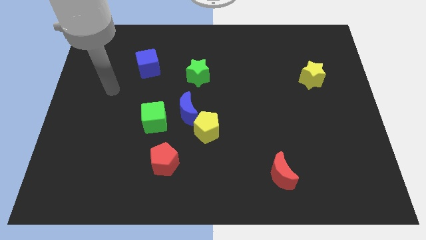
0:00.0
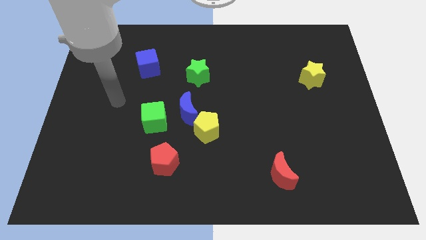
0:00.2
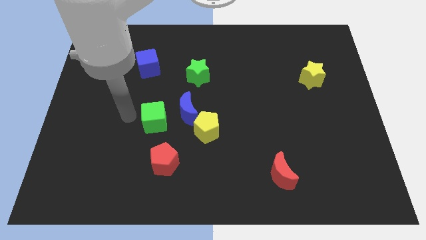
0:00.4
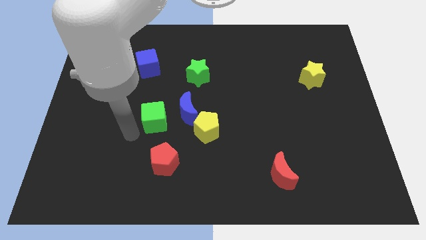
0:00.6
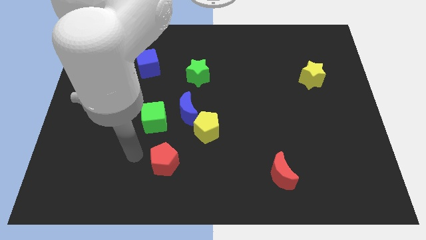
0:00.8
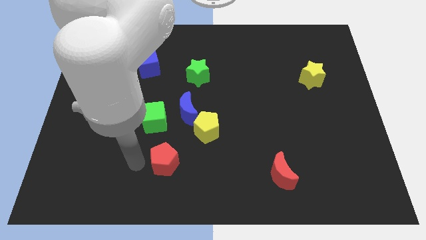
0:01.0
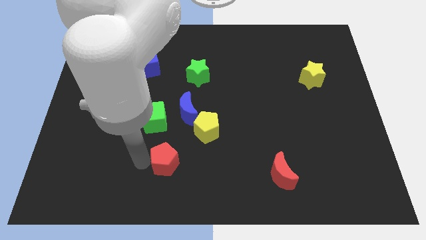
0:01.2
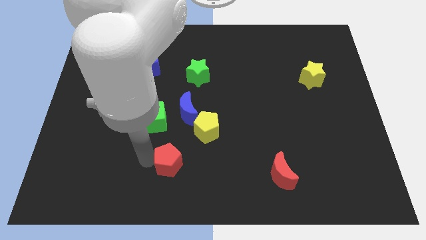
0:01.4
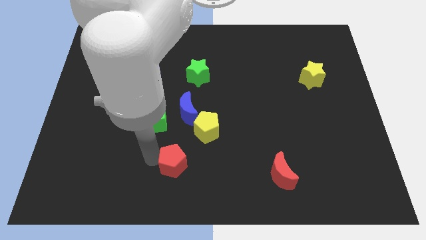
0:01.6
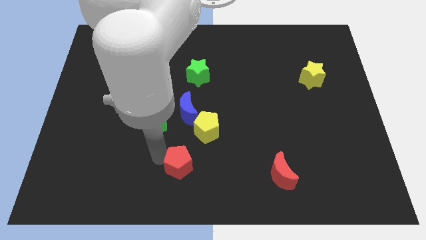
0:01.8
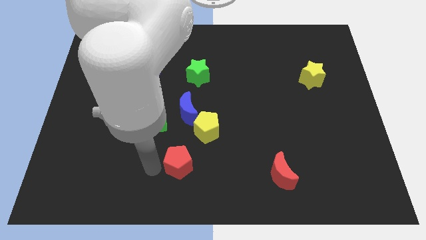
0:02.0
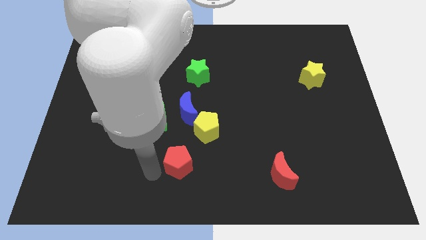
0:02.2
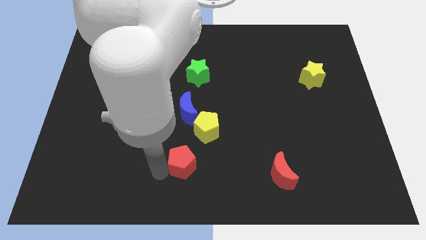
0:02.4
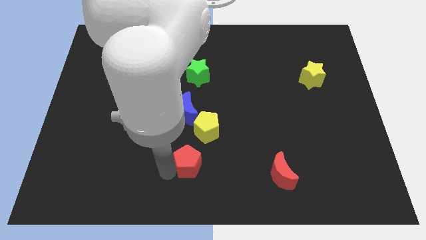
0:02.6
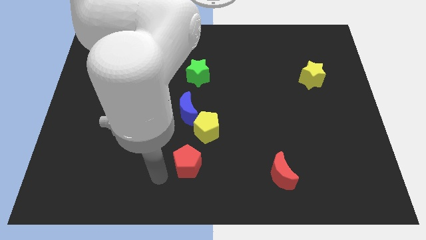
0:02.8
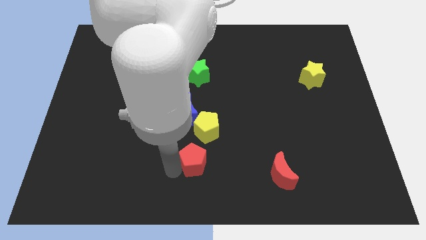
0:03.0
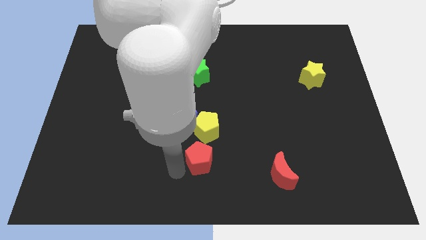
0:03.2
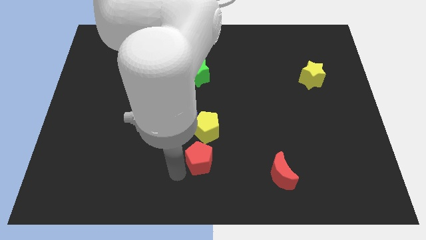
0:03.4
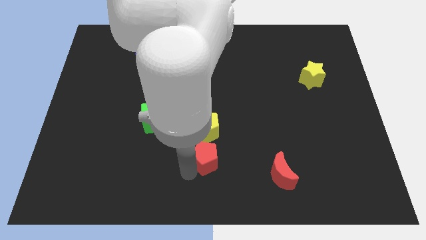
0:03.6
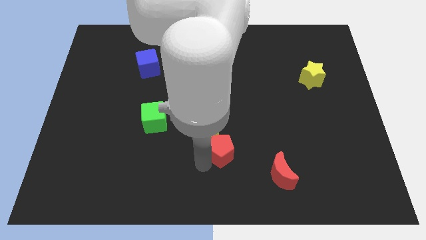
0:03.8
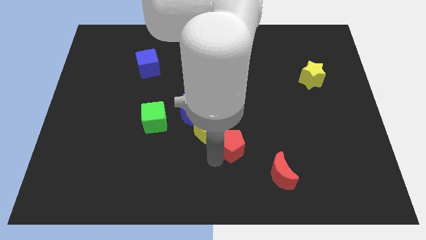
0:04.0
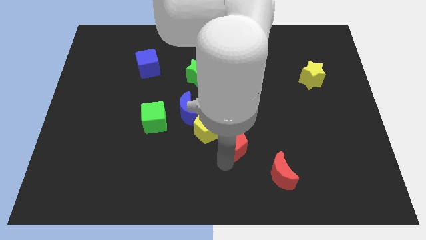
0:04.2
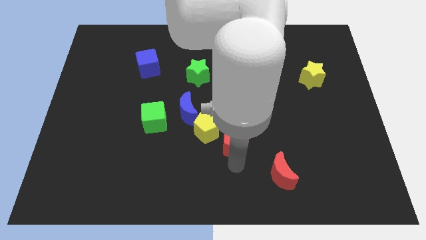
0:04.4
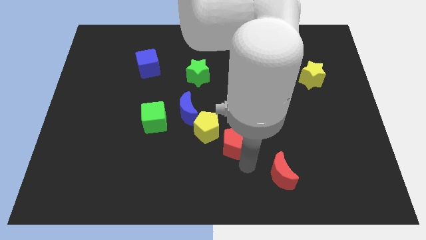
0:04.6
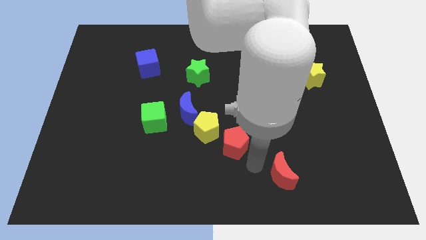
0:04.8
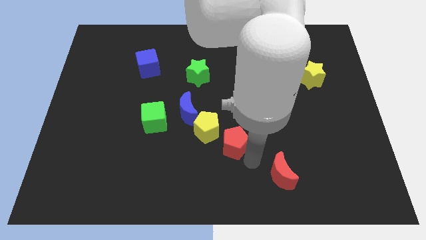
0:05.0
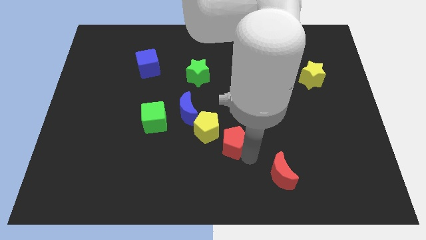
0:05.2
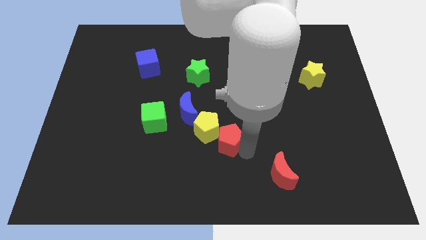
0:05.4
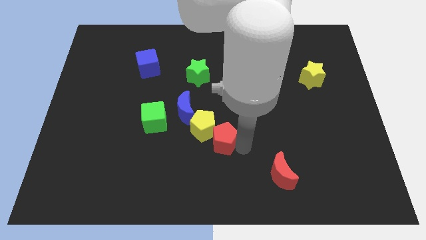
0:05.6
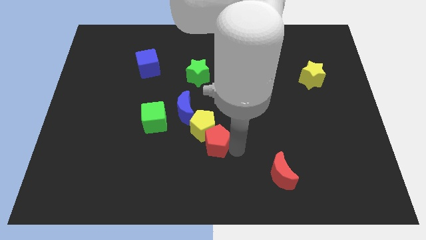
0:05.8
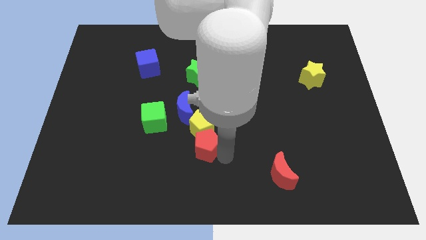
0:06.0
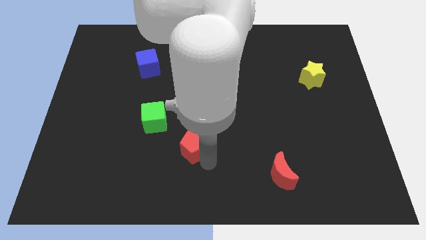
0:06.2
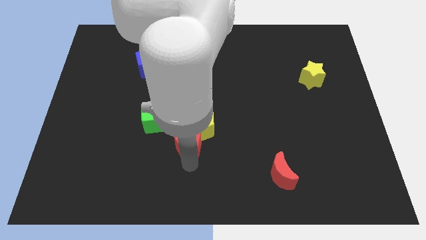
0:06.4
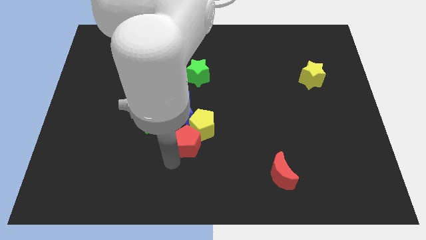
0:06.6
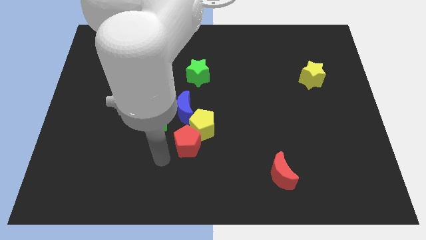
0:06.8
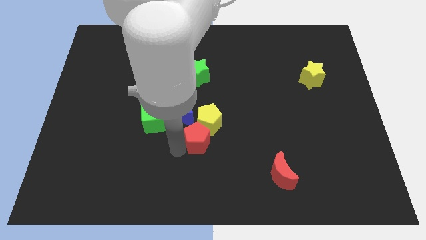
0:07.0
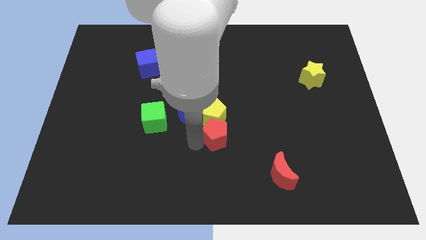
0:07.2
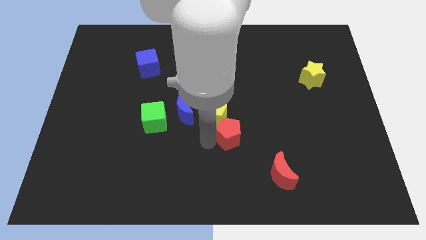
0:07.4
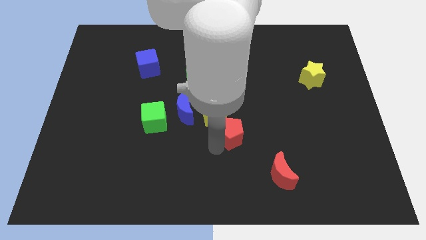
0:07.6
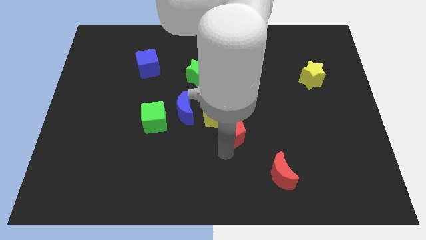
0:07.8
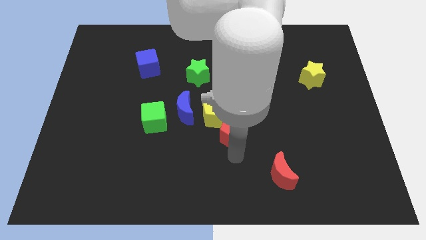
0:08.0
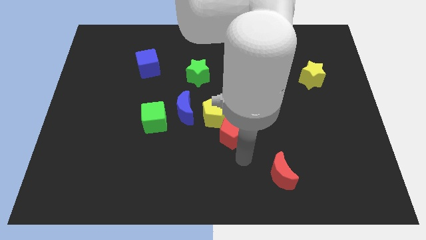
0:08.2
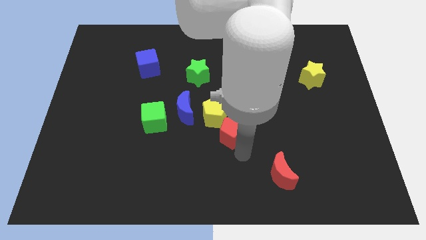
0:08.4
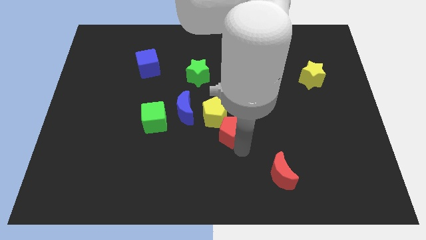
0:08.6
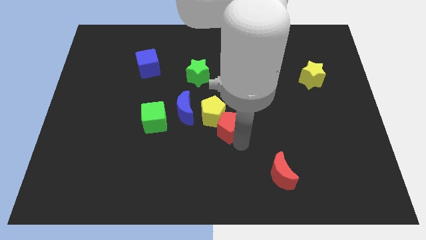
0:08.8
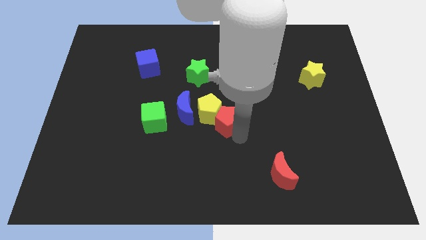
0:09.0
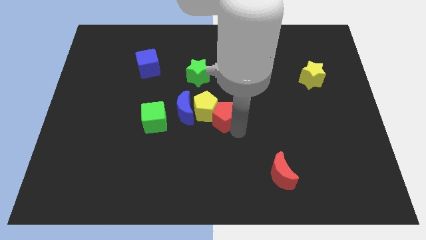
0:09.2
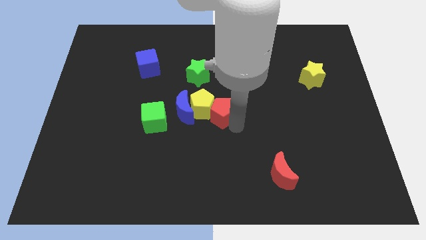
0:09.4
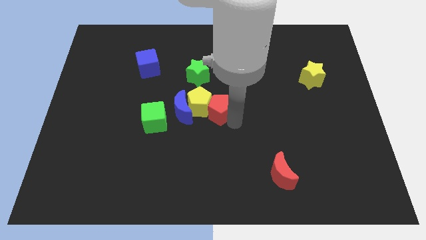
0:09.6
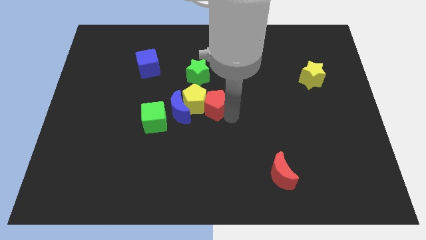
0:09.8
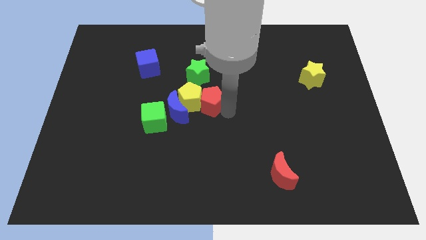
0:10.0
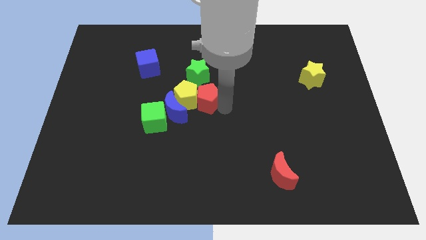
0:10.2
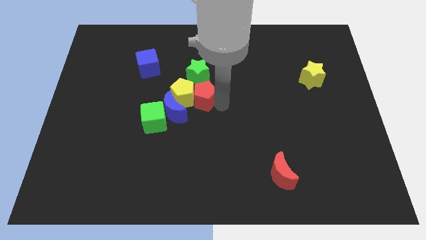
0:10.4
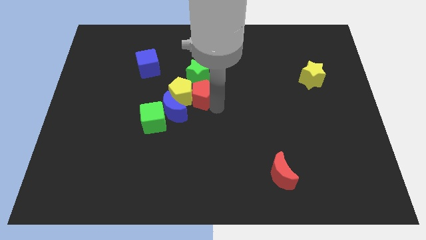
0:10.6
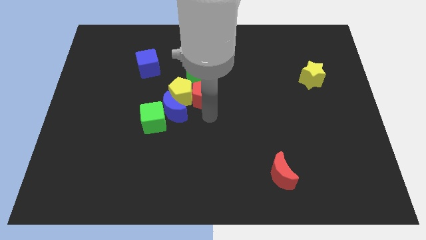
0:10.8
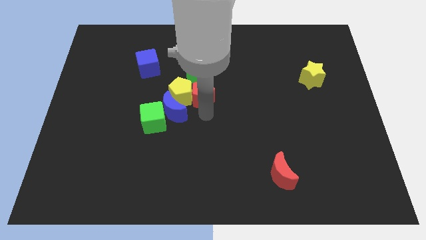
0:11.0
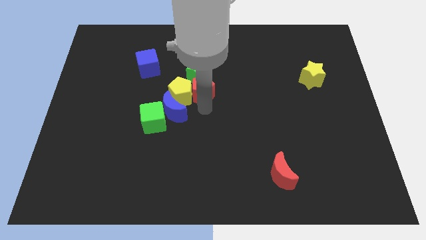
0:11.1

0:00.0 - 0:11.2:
push the red pentagon close to the green star

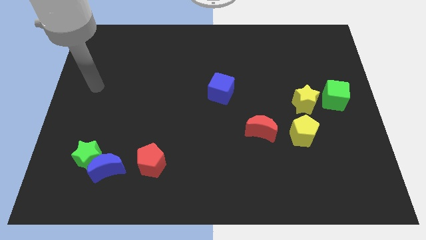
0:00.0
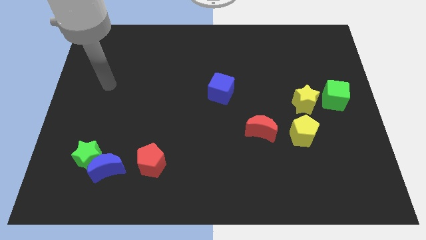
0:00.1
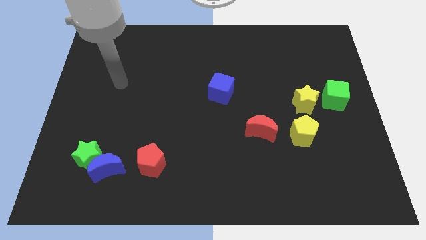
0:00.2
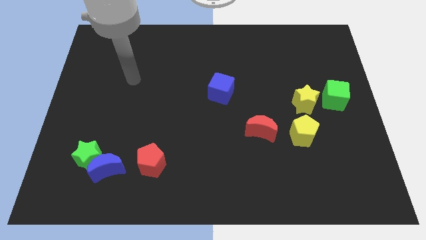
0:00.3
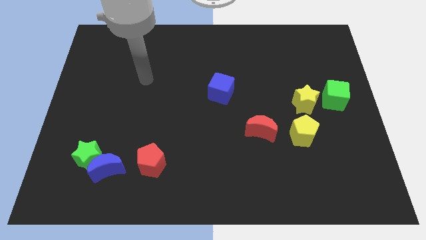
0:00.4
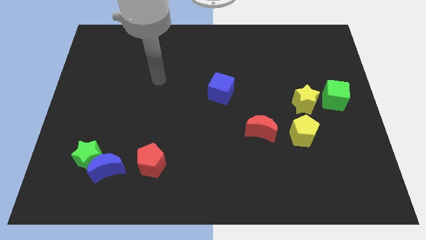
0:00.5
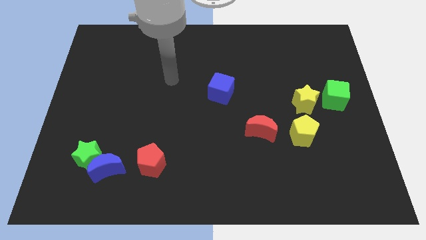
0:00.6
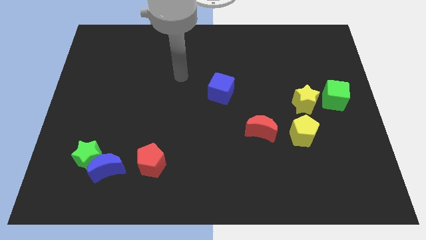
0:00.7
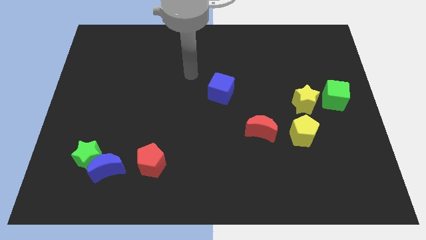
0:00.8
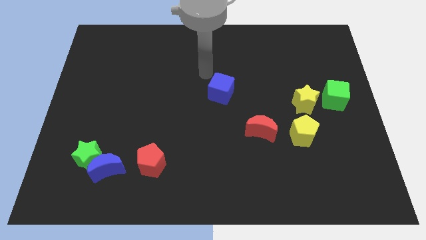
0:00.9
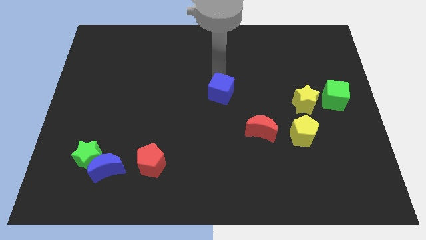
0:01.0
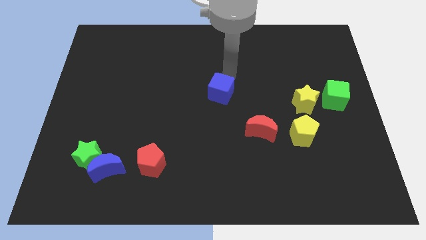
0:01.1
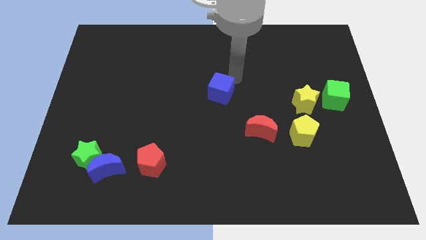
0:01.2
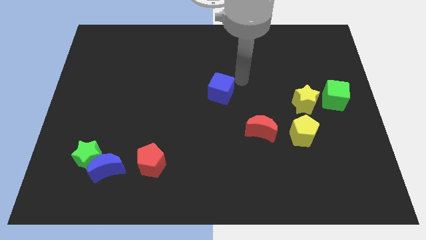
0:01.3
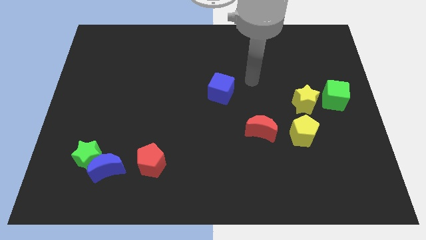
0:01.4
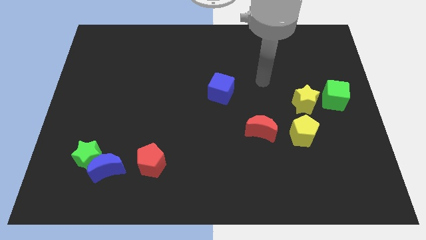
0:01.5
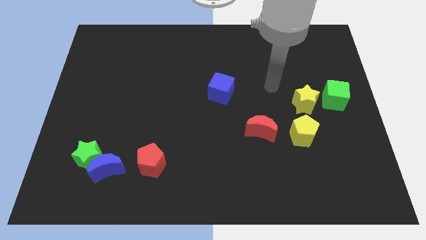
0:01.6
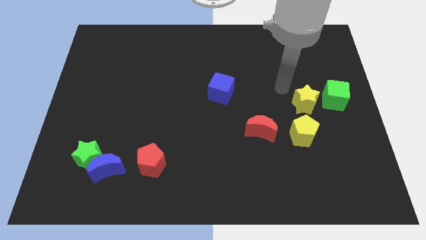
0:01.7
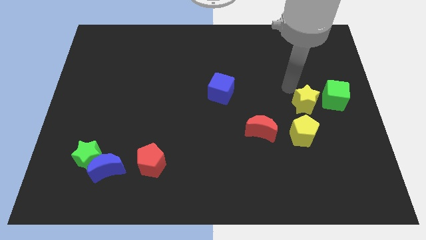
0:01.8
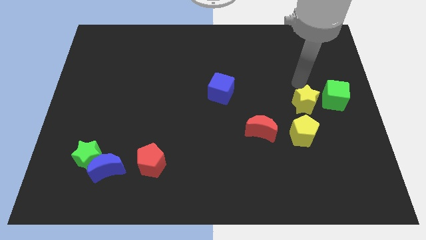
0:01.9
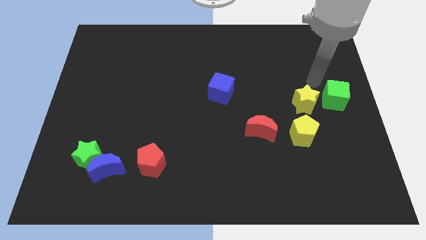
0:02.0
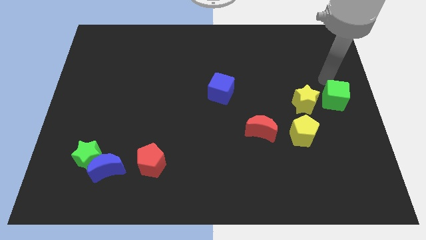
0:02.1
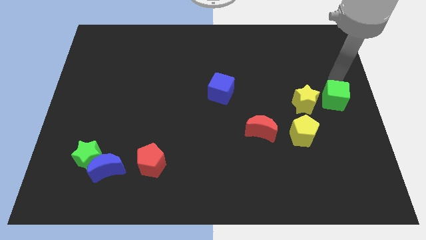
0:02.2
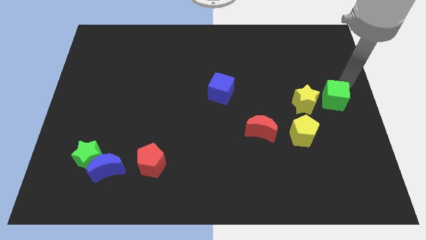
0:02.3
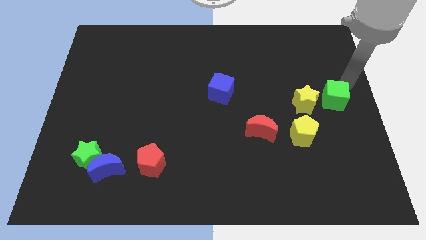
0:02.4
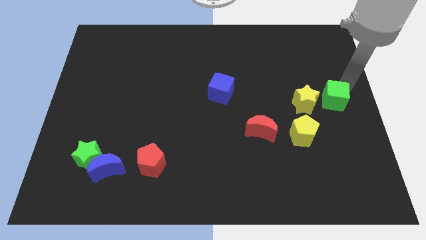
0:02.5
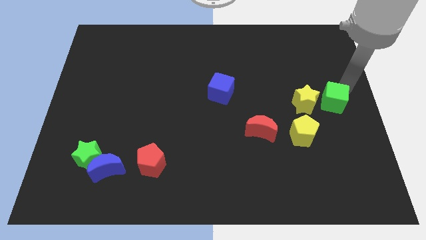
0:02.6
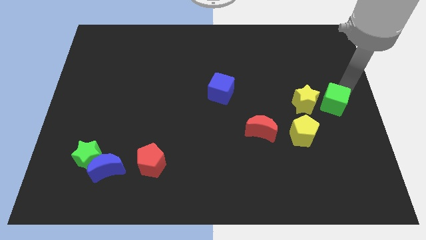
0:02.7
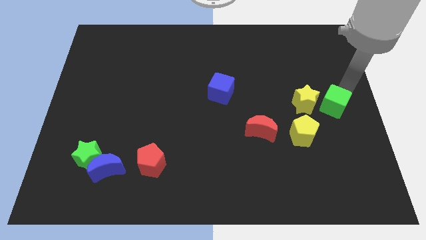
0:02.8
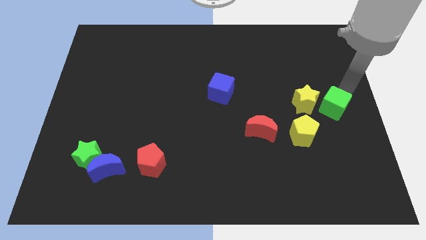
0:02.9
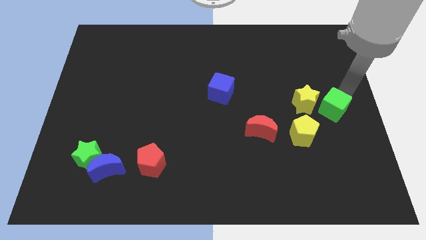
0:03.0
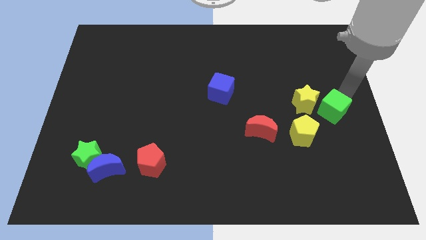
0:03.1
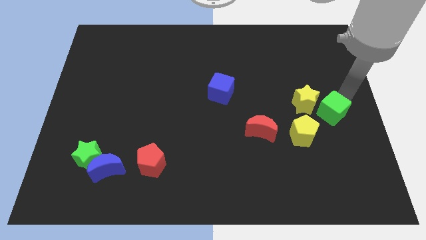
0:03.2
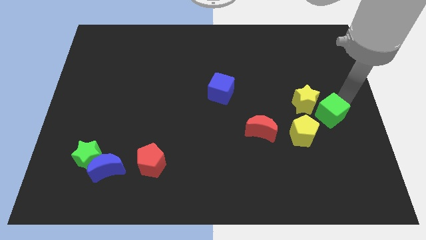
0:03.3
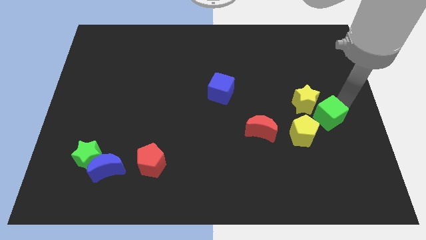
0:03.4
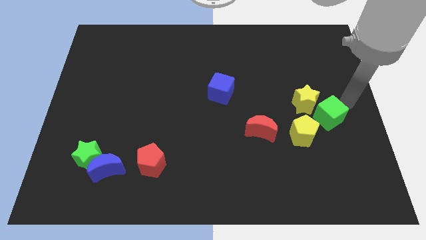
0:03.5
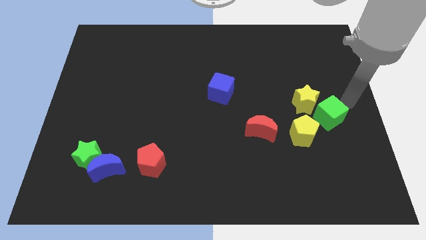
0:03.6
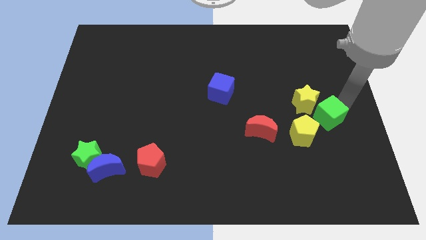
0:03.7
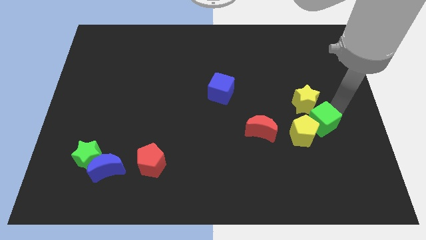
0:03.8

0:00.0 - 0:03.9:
push the green cube to the yellow pentagon
